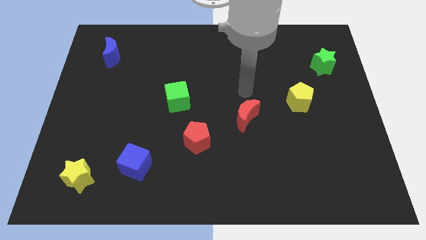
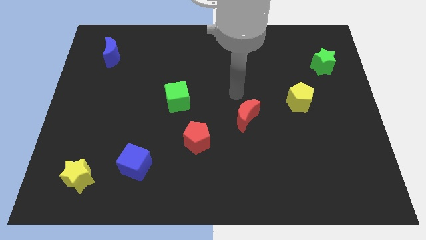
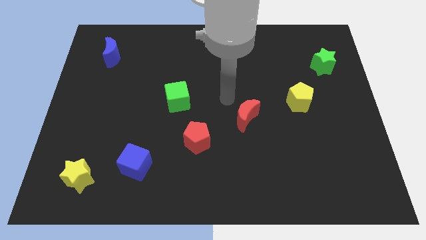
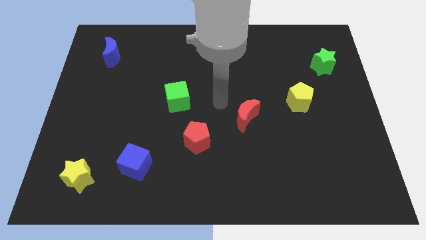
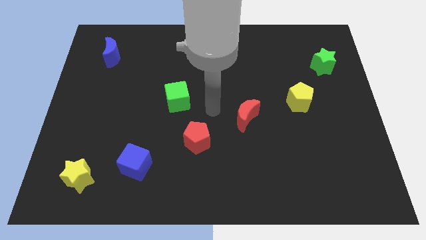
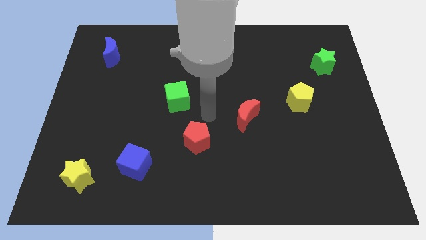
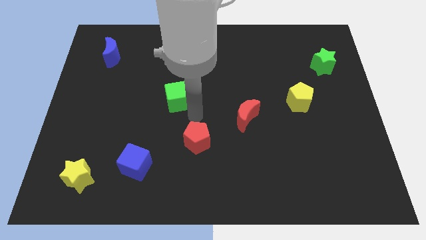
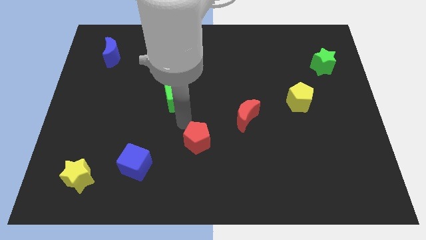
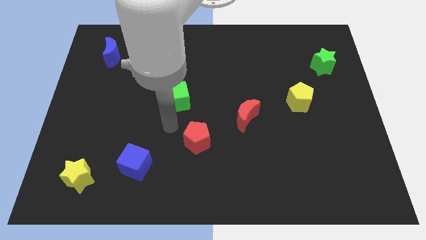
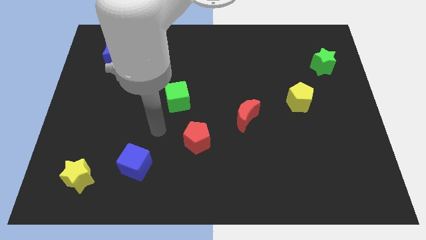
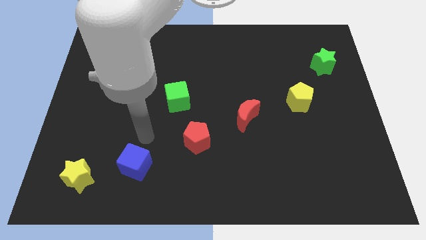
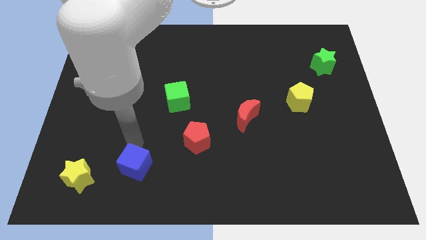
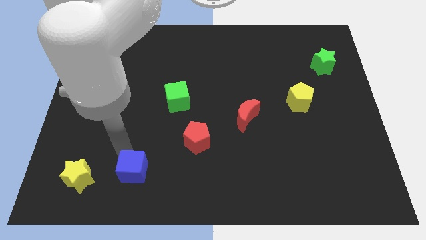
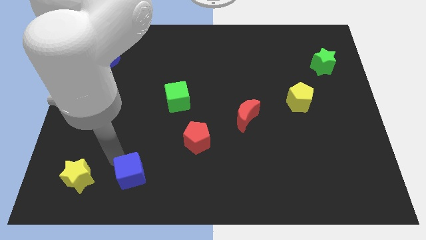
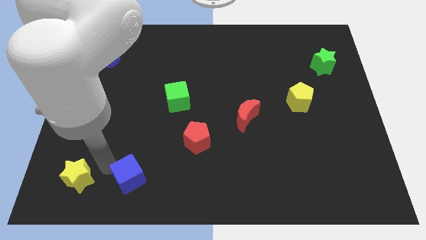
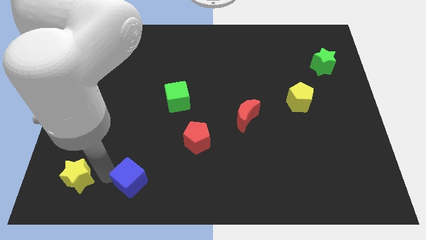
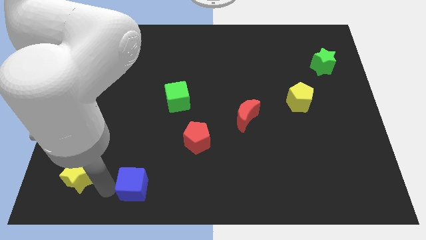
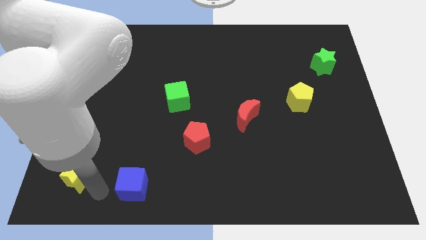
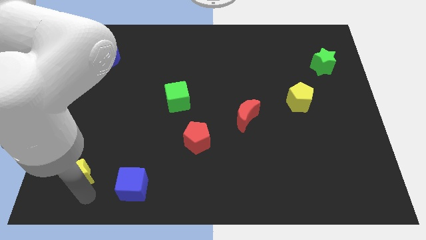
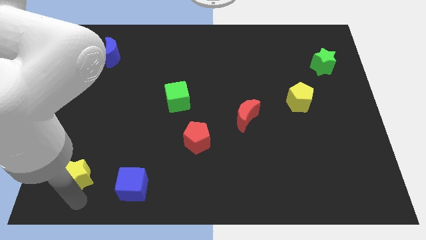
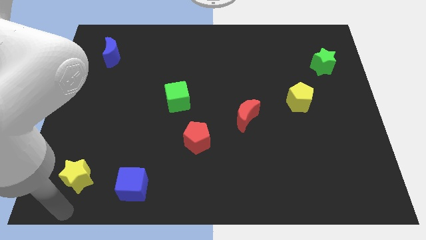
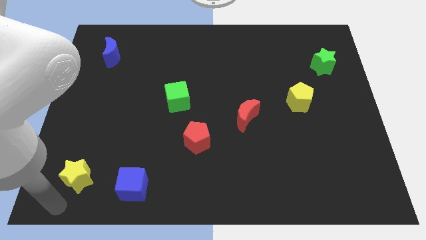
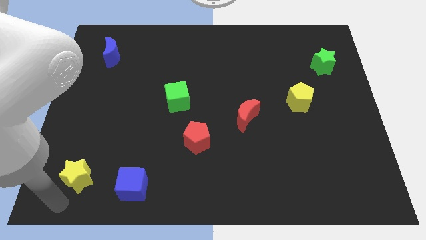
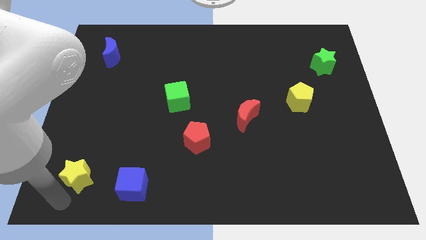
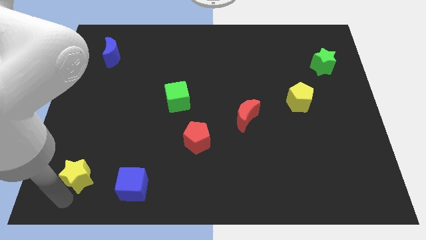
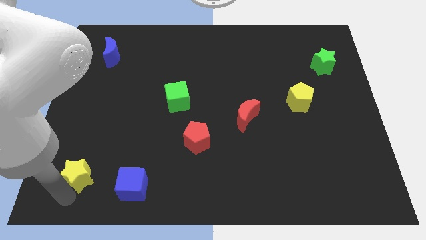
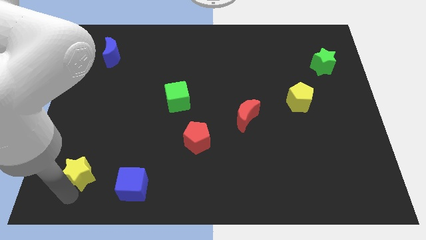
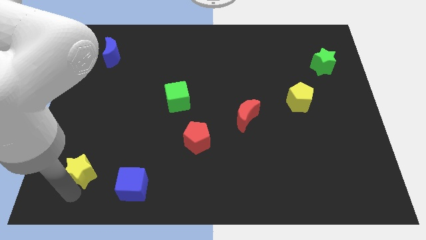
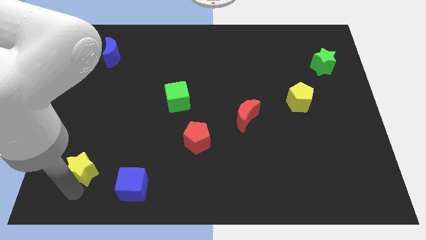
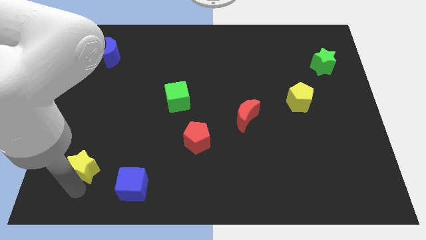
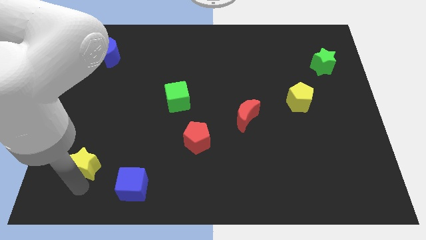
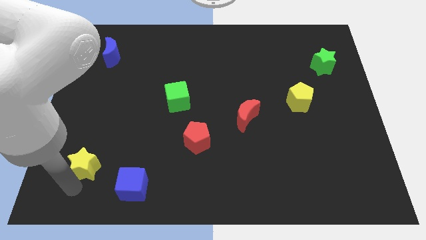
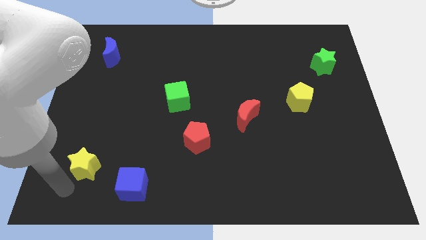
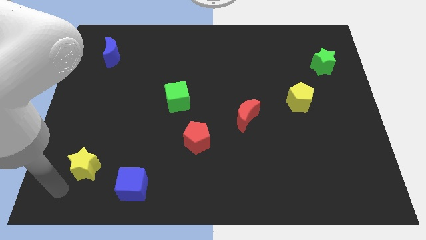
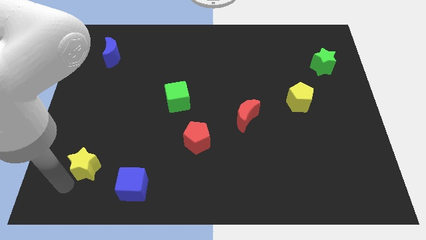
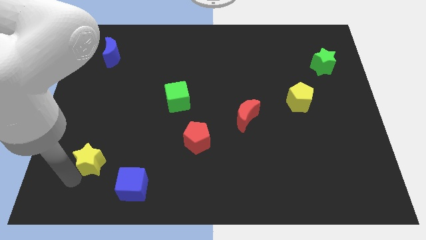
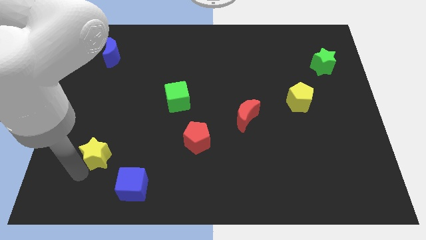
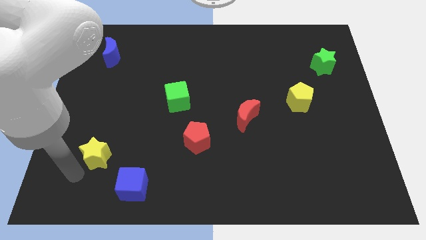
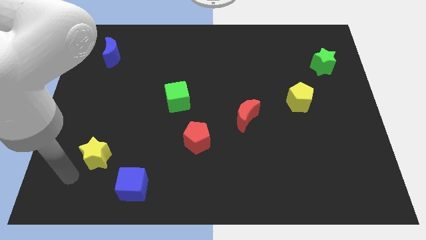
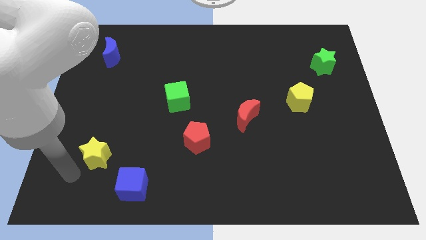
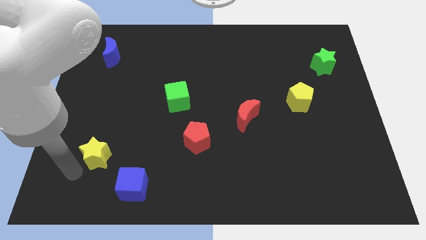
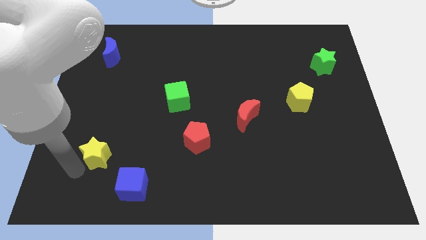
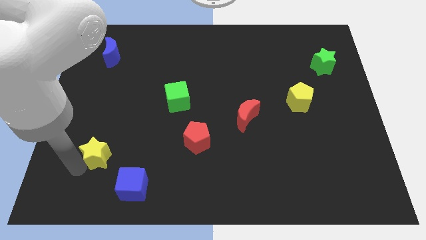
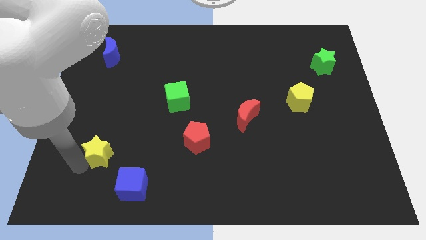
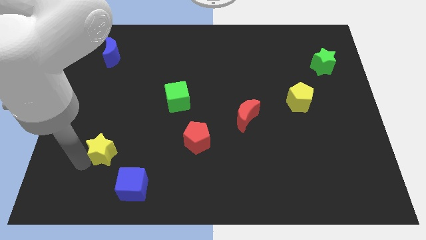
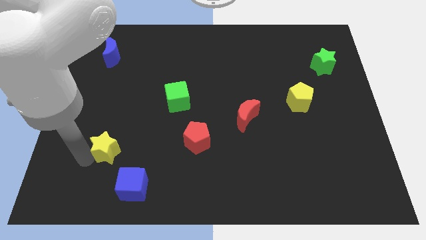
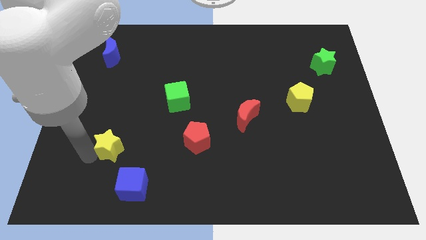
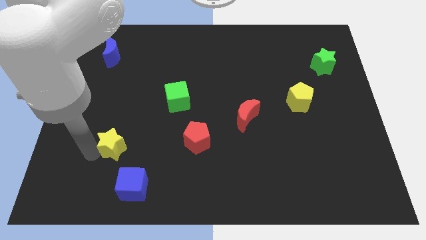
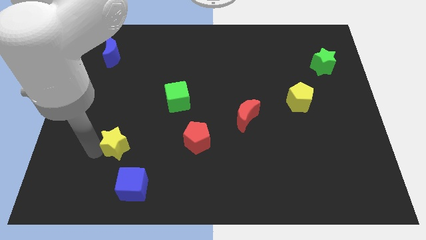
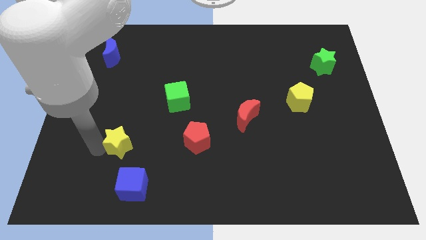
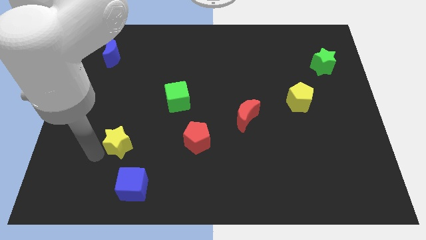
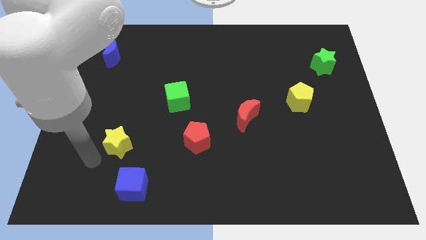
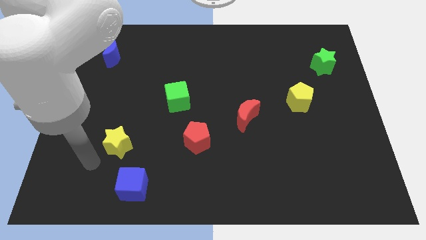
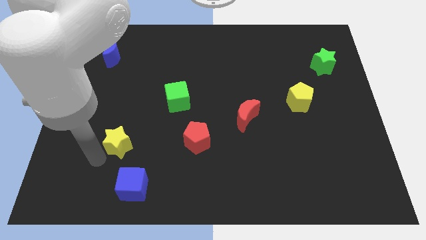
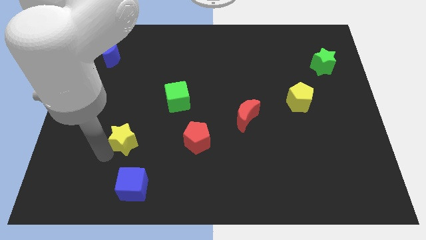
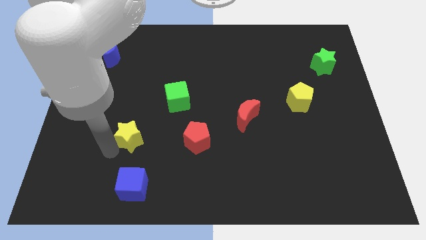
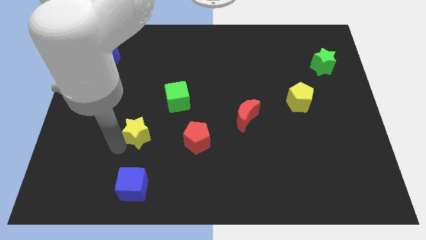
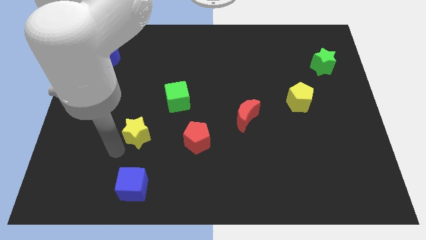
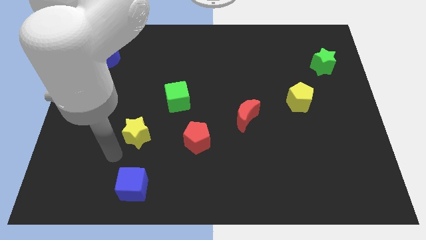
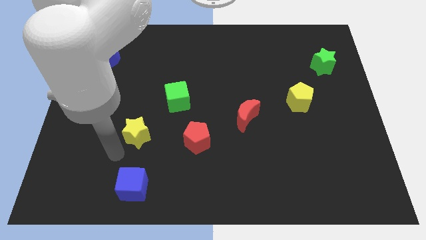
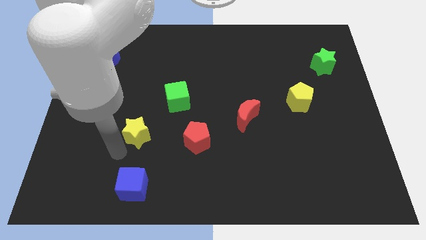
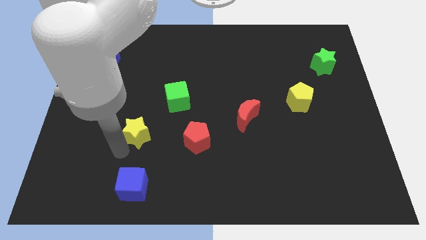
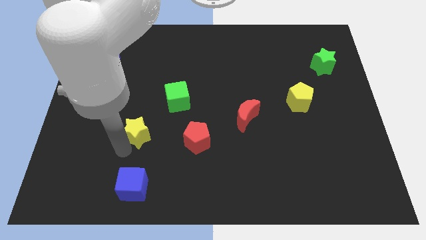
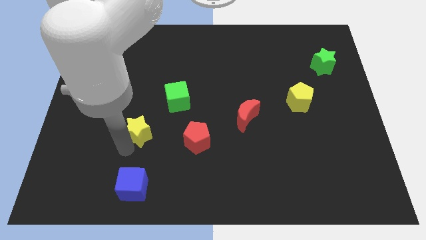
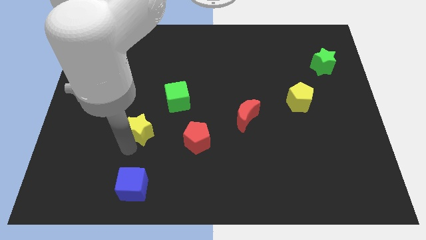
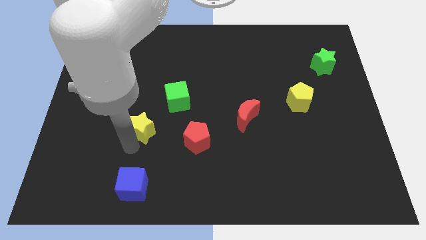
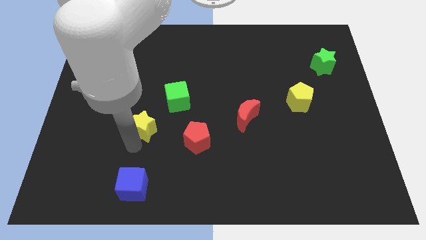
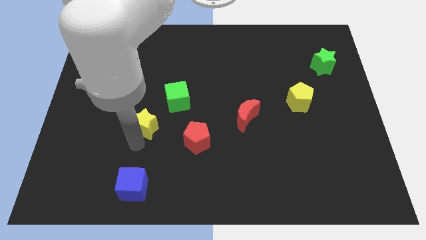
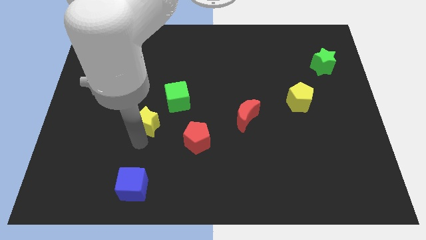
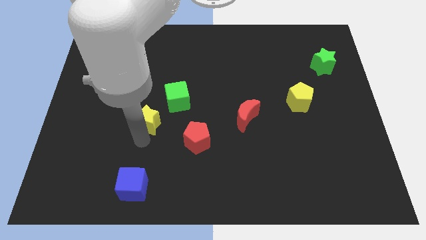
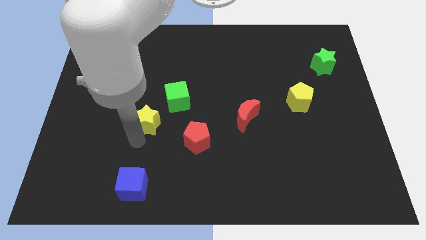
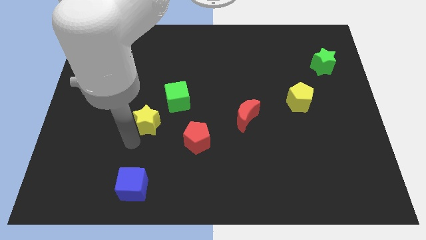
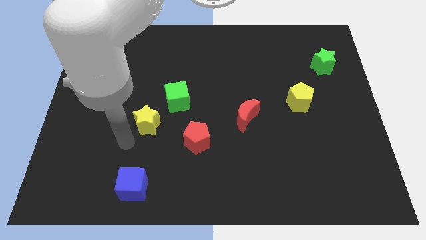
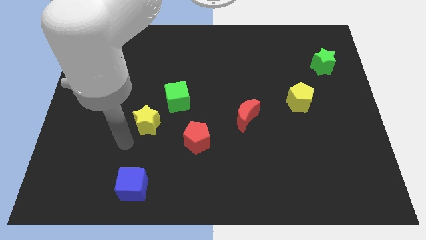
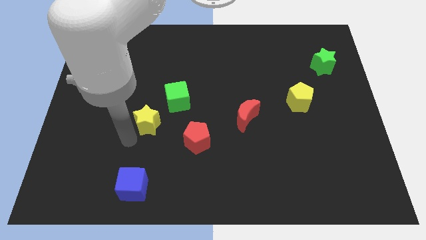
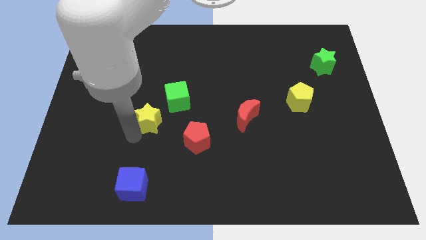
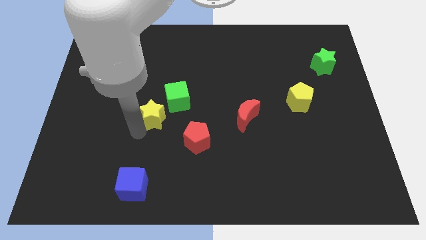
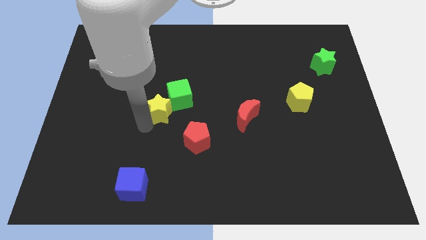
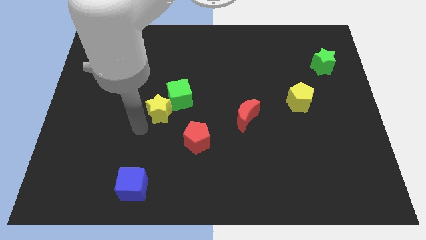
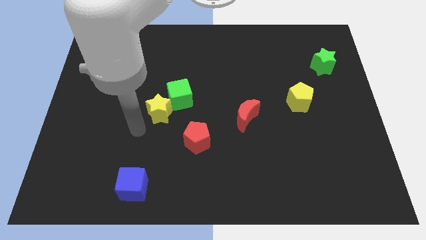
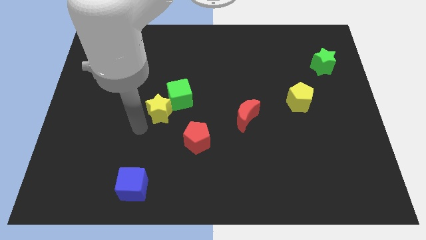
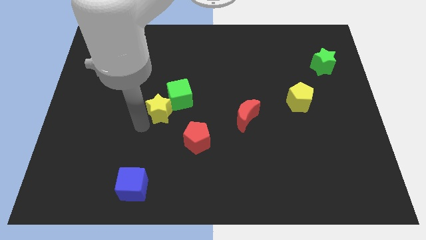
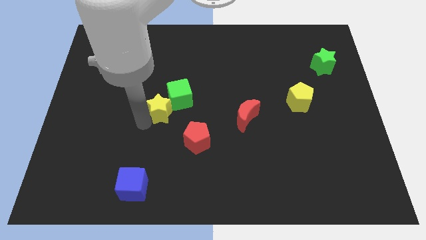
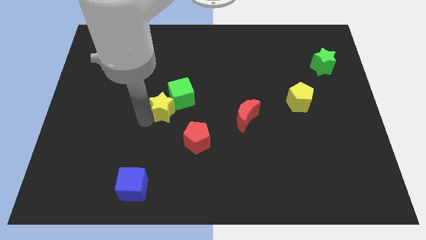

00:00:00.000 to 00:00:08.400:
slide the yellow star close to the green cube
